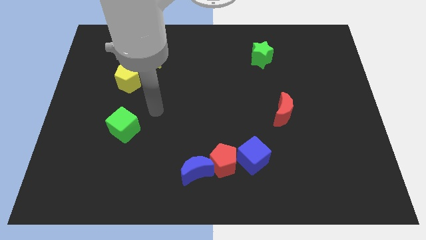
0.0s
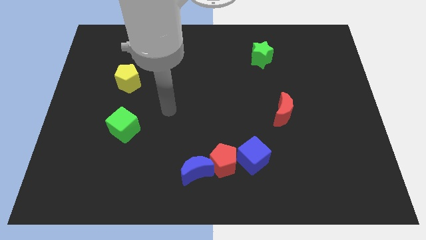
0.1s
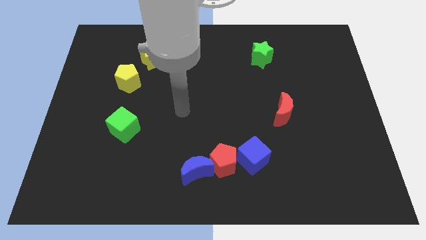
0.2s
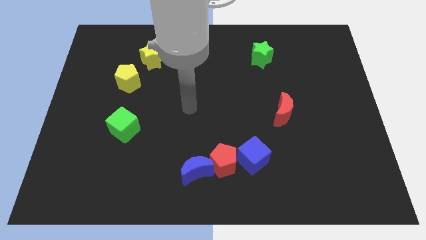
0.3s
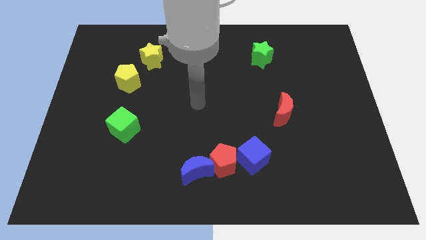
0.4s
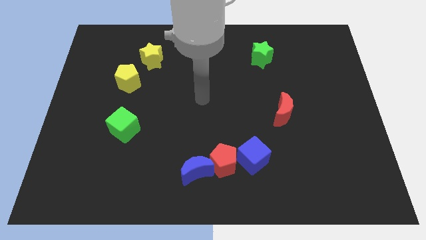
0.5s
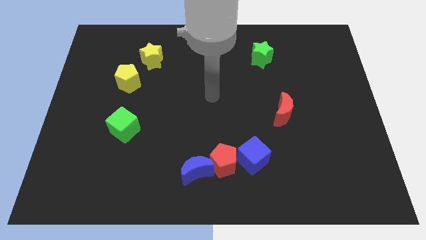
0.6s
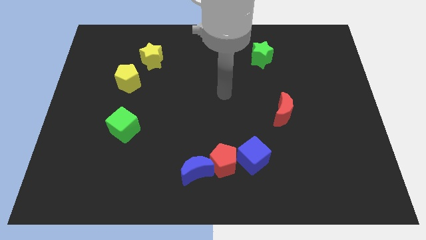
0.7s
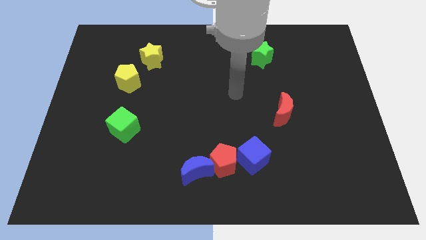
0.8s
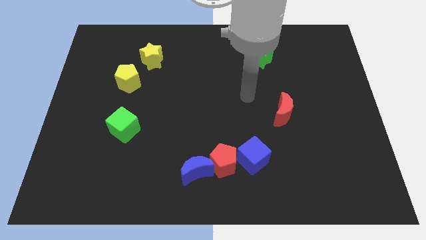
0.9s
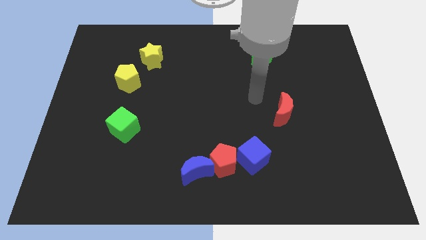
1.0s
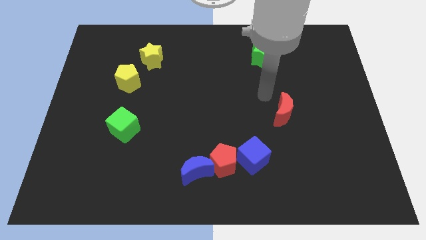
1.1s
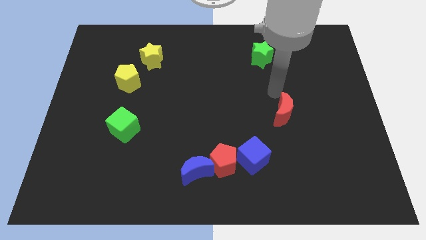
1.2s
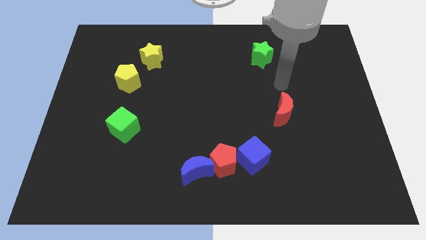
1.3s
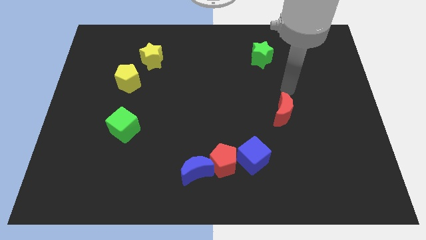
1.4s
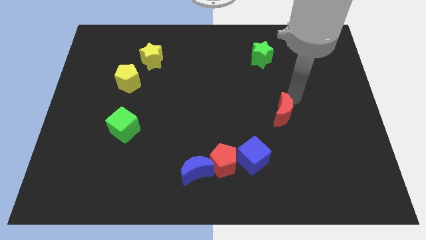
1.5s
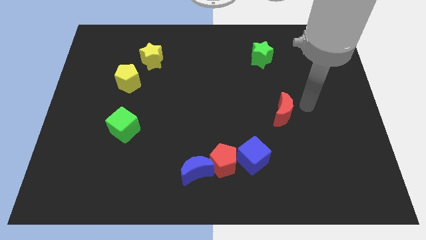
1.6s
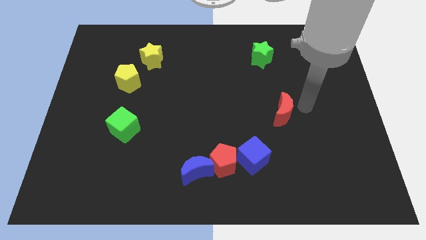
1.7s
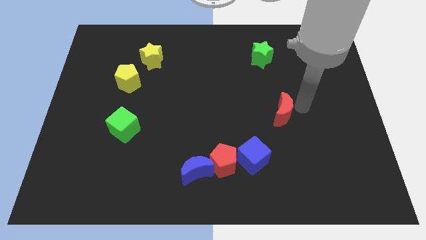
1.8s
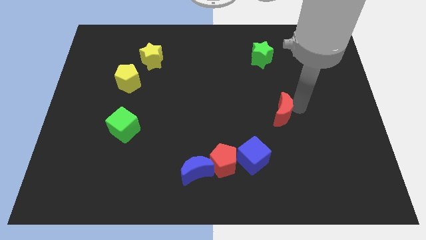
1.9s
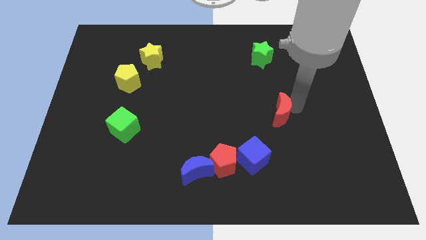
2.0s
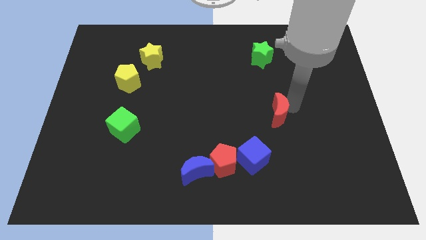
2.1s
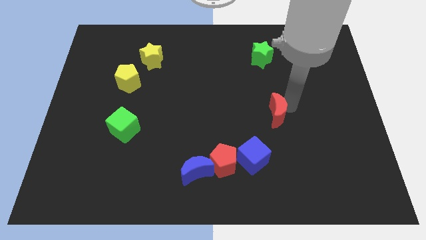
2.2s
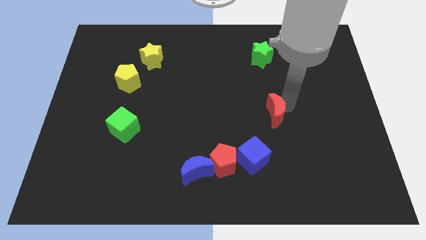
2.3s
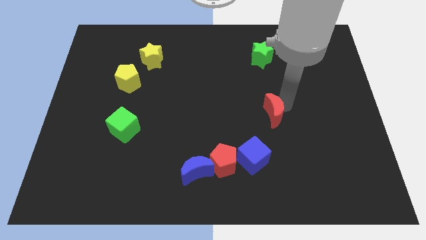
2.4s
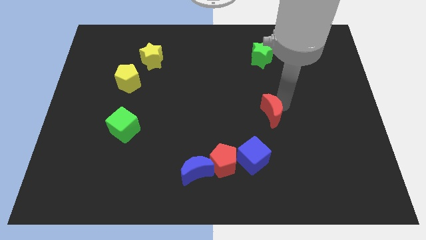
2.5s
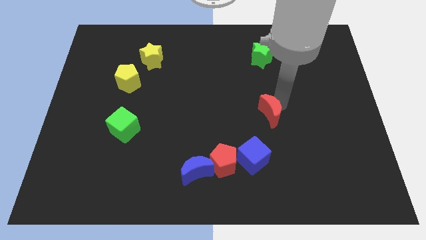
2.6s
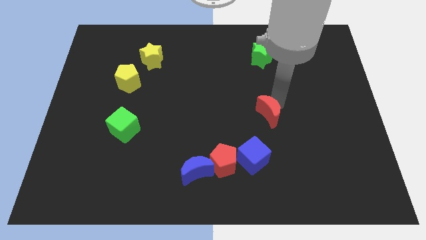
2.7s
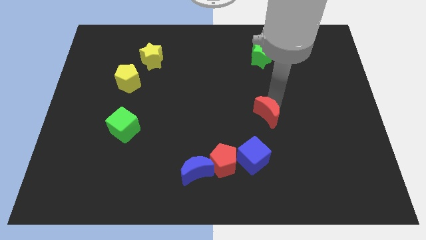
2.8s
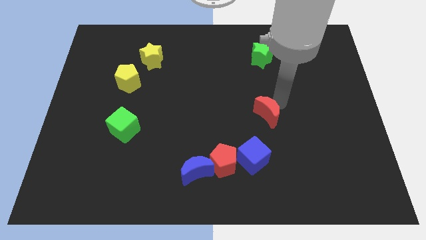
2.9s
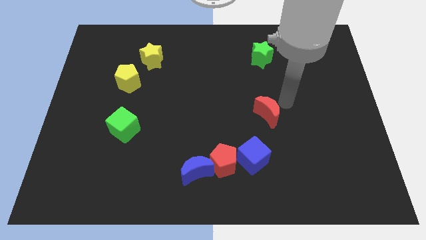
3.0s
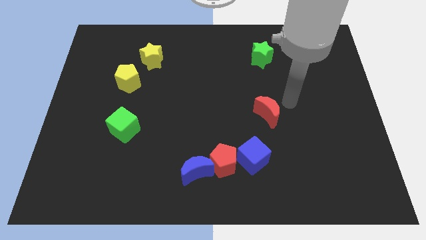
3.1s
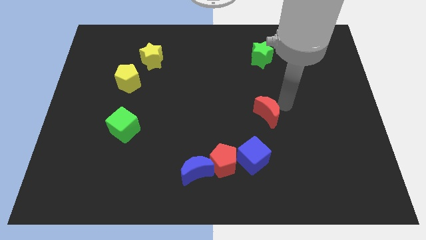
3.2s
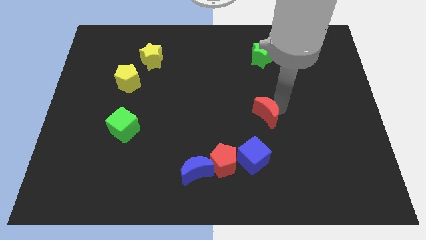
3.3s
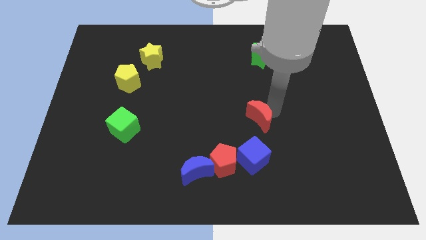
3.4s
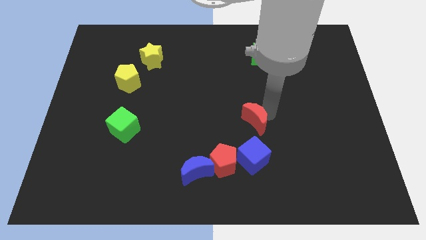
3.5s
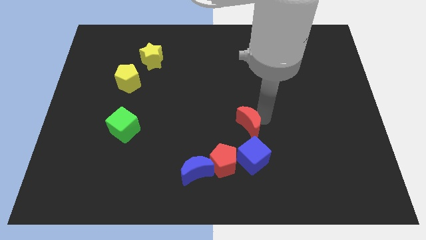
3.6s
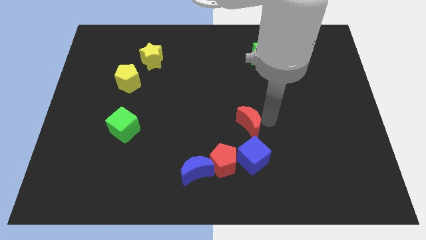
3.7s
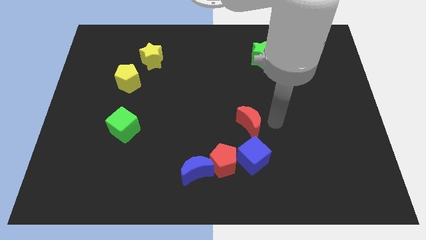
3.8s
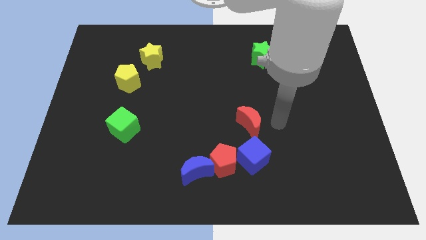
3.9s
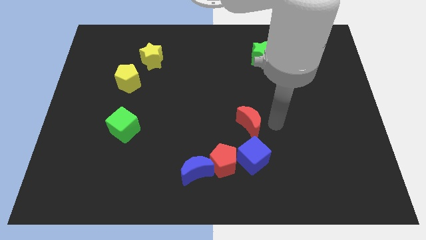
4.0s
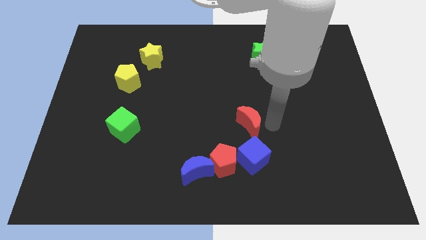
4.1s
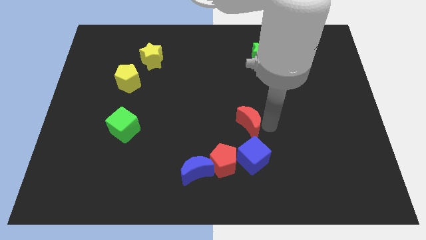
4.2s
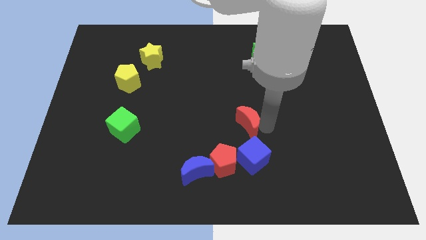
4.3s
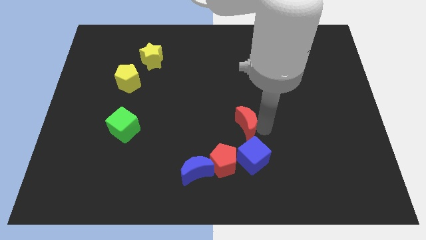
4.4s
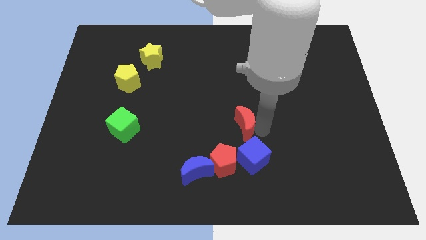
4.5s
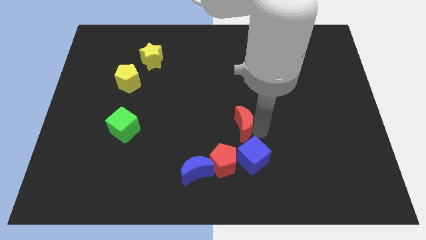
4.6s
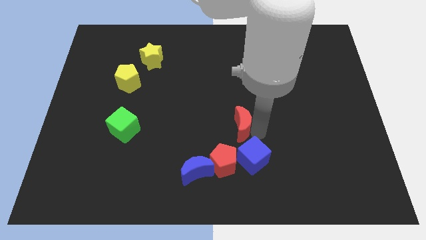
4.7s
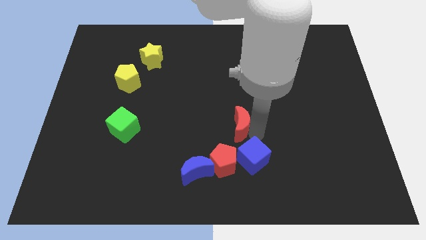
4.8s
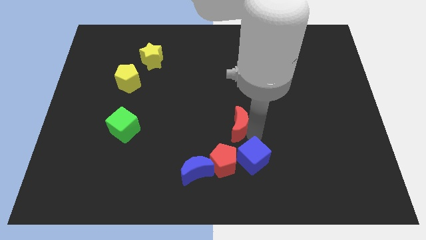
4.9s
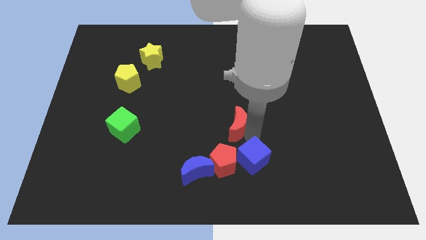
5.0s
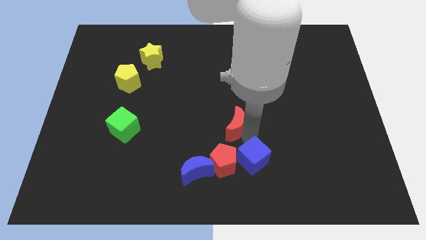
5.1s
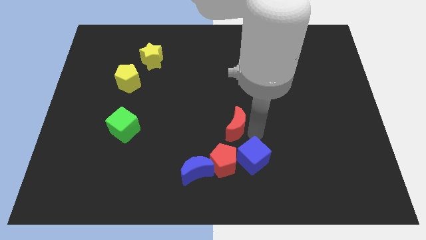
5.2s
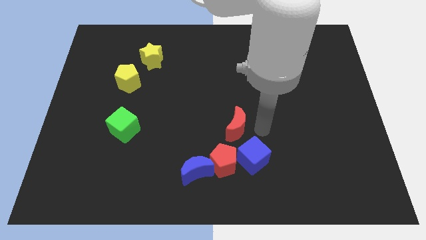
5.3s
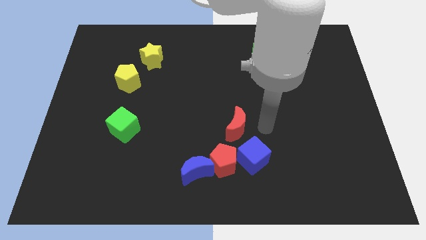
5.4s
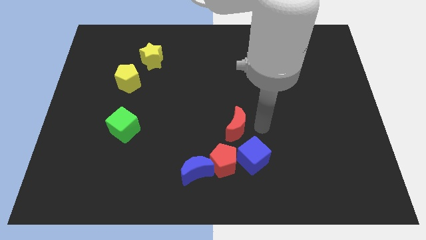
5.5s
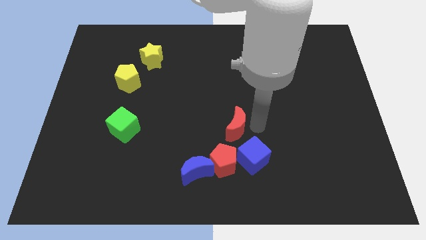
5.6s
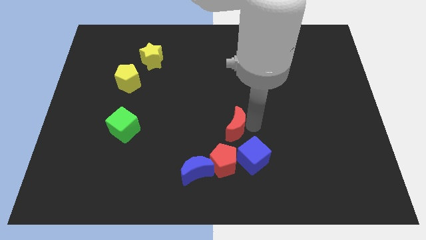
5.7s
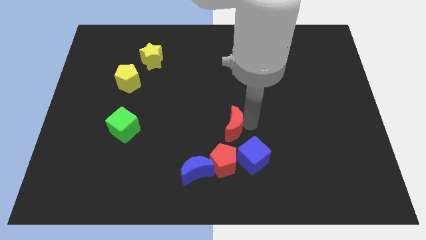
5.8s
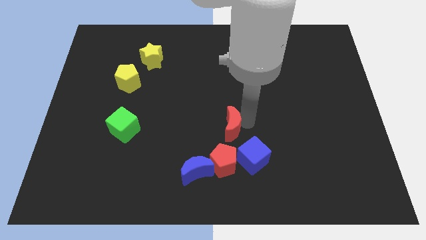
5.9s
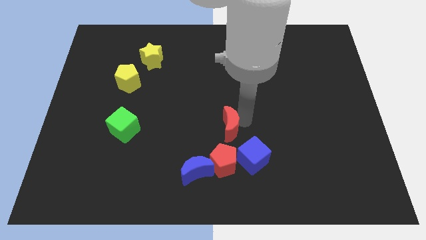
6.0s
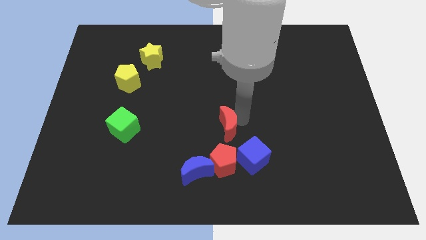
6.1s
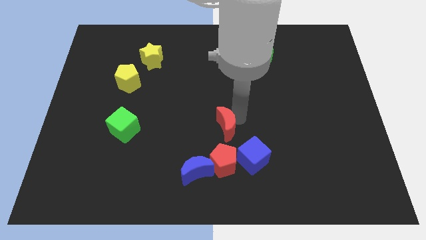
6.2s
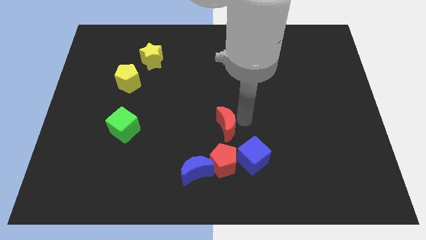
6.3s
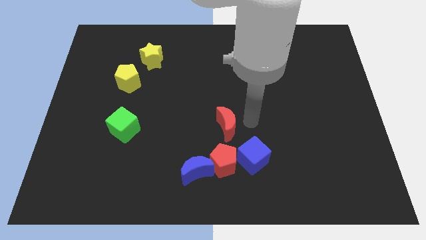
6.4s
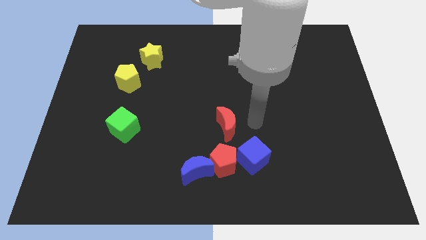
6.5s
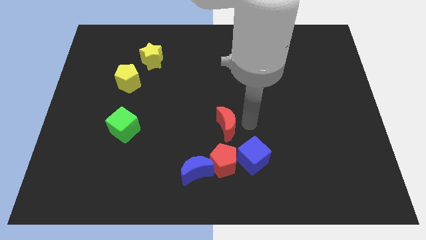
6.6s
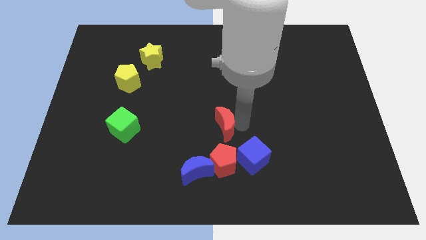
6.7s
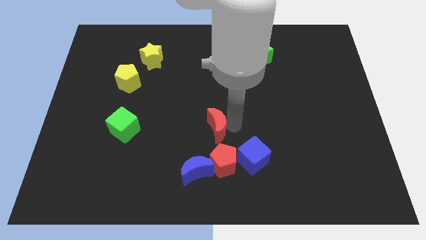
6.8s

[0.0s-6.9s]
slide the red moon above the blue moon
